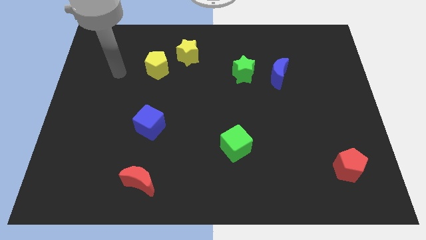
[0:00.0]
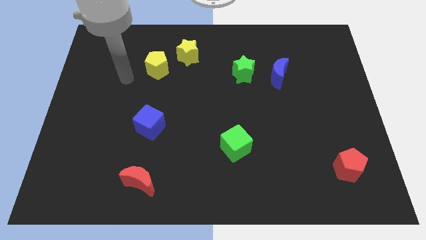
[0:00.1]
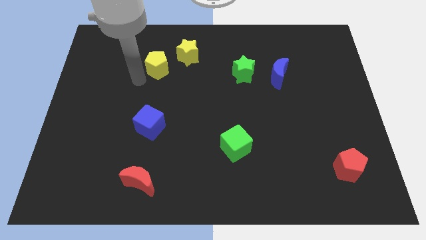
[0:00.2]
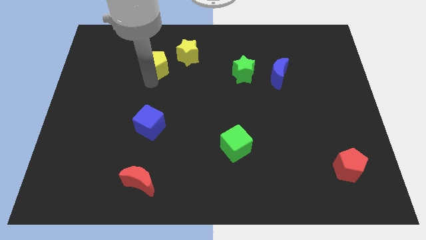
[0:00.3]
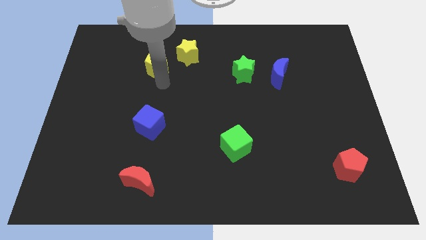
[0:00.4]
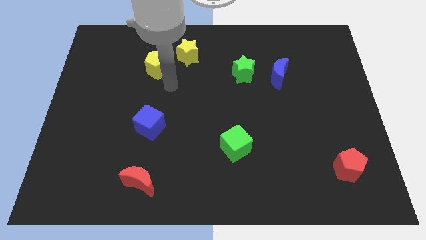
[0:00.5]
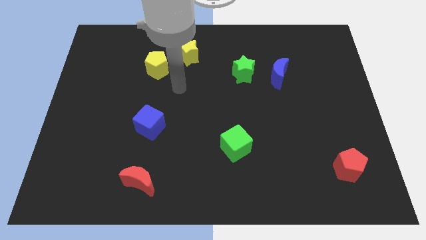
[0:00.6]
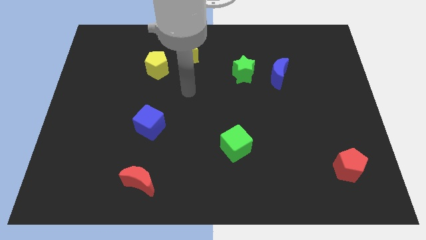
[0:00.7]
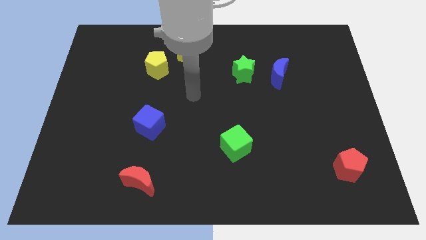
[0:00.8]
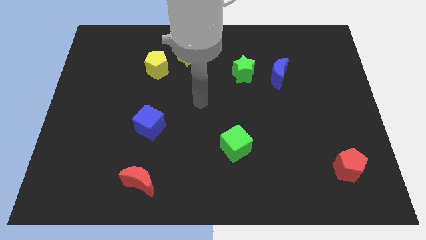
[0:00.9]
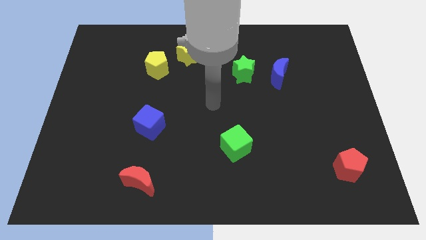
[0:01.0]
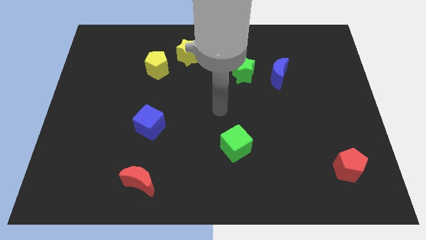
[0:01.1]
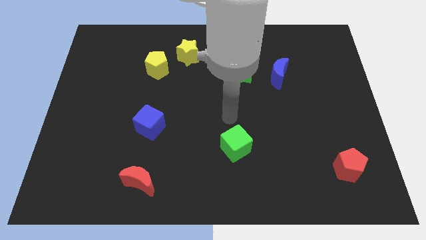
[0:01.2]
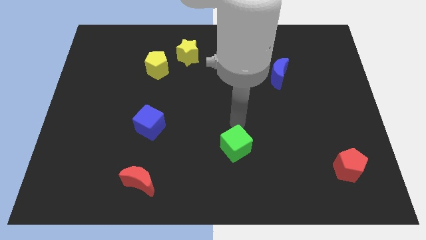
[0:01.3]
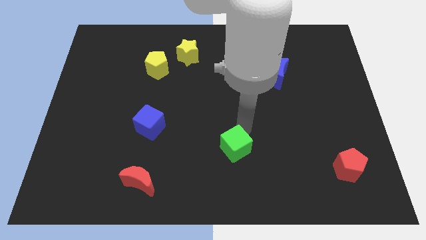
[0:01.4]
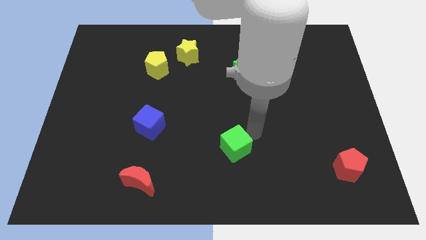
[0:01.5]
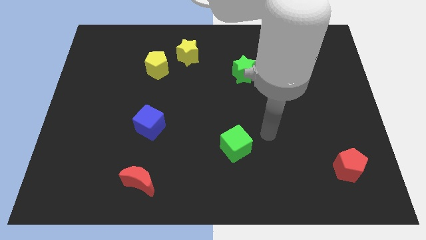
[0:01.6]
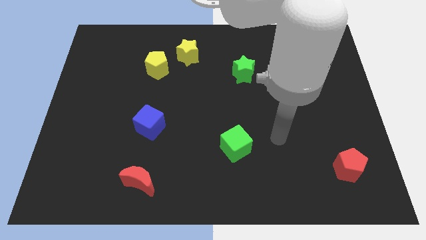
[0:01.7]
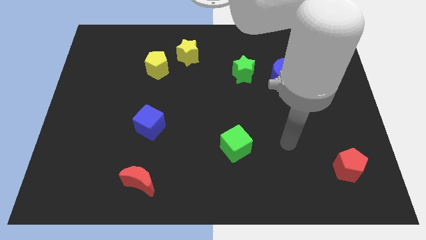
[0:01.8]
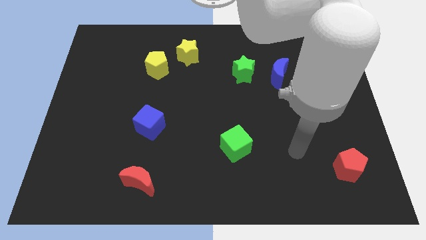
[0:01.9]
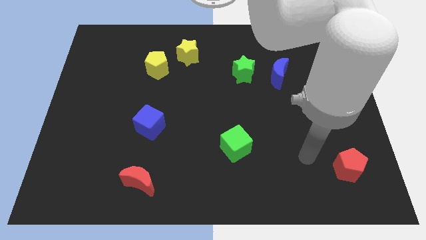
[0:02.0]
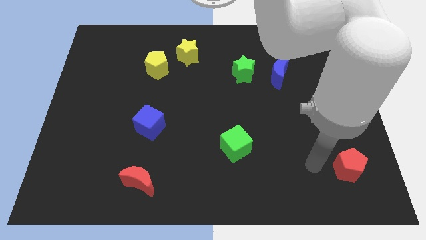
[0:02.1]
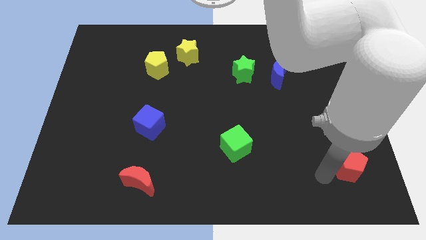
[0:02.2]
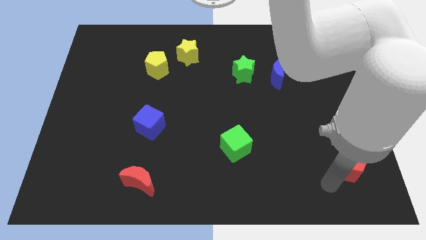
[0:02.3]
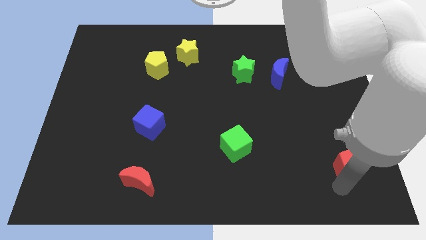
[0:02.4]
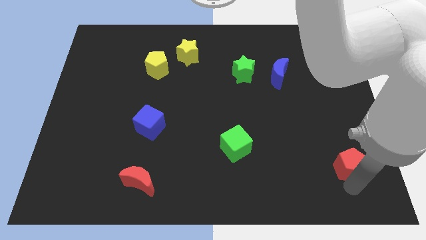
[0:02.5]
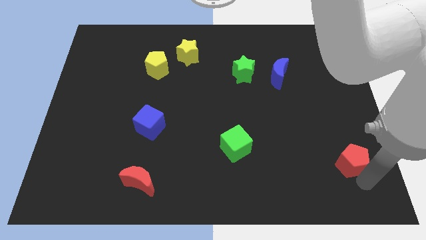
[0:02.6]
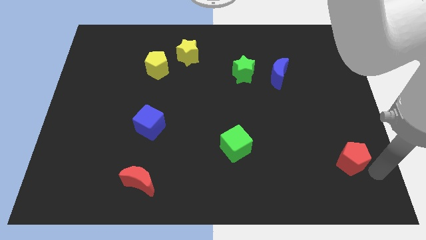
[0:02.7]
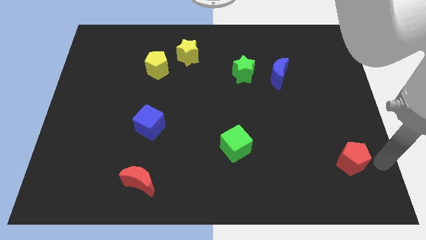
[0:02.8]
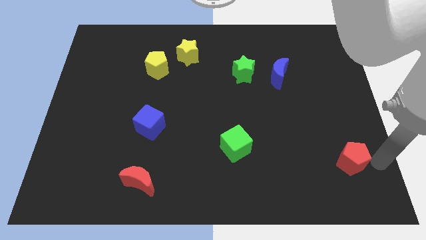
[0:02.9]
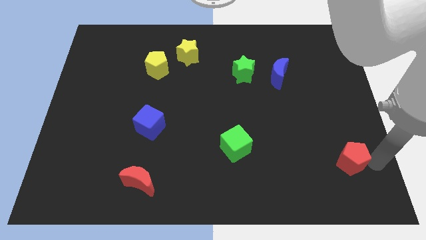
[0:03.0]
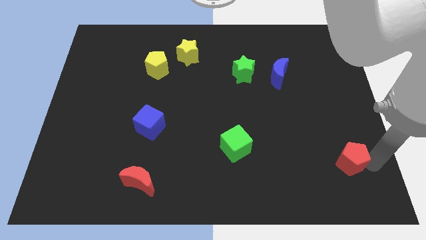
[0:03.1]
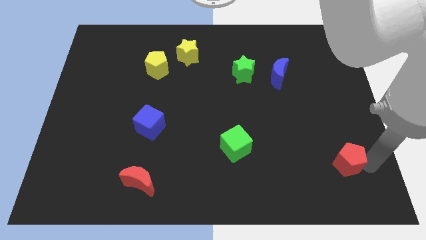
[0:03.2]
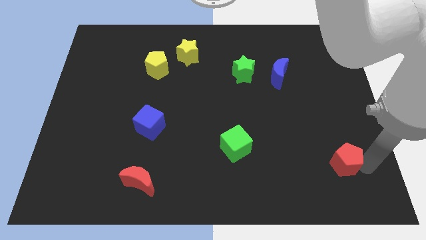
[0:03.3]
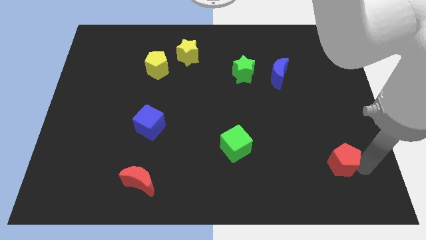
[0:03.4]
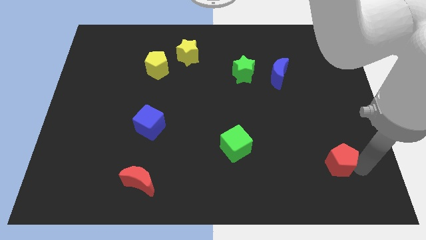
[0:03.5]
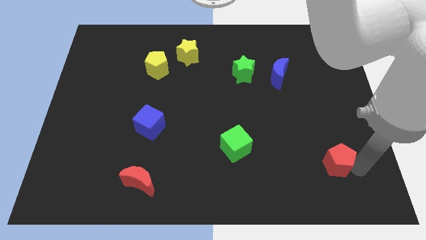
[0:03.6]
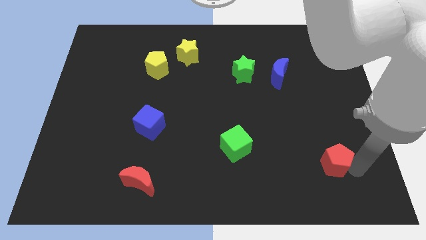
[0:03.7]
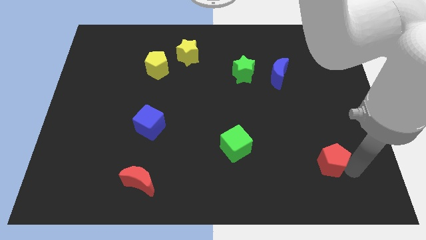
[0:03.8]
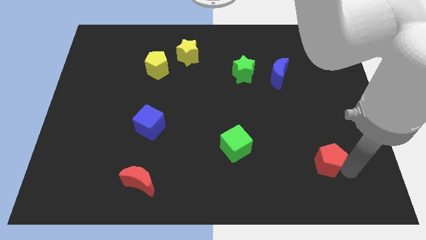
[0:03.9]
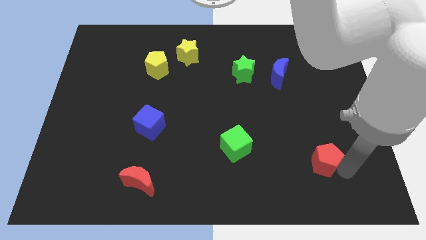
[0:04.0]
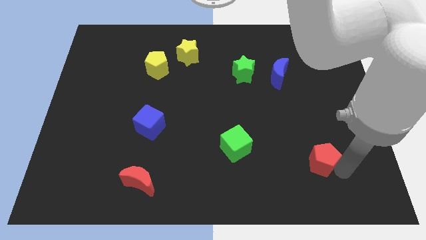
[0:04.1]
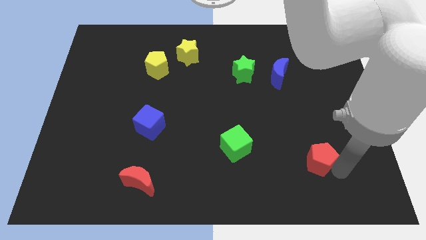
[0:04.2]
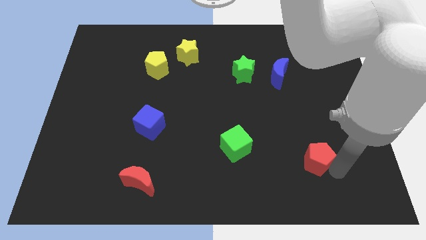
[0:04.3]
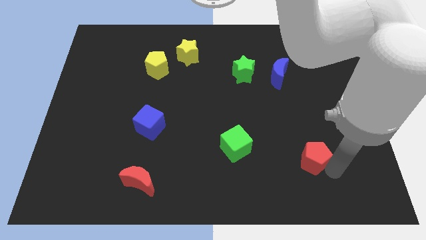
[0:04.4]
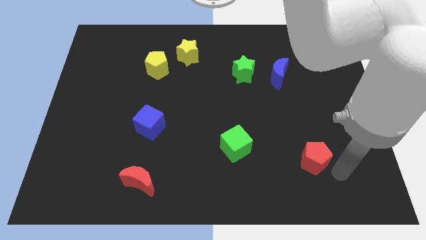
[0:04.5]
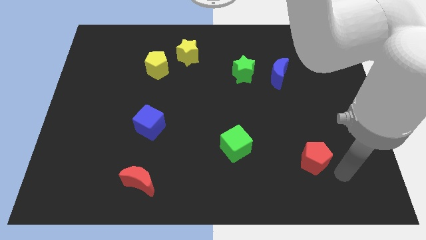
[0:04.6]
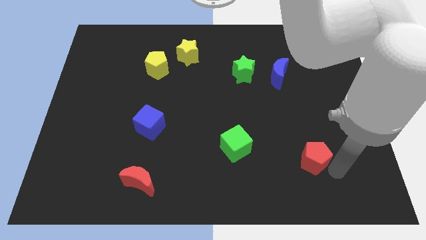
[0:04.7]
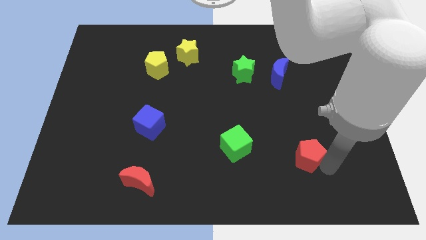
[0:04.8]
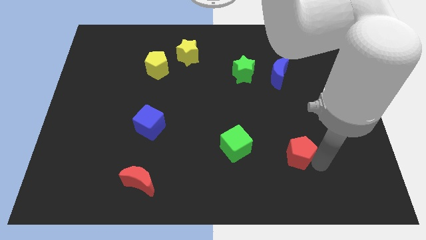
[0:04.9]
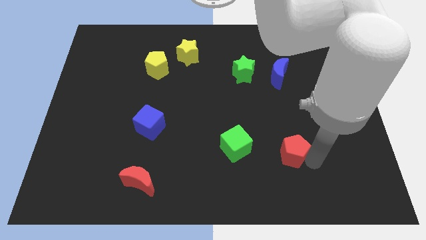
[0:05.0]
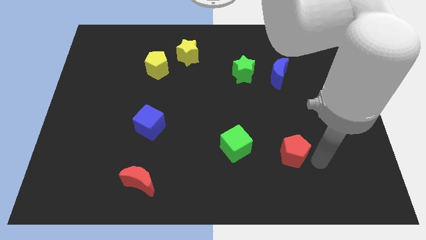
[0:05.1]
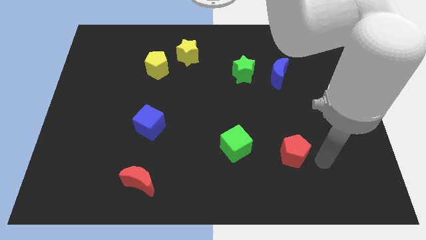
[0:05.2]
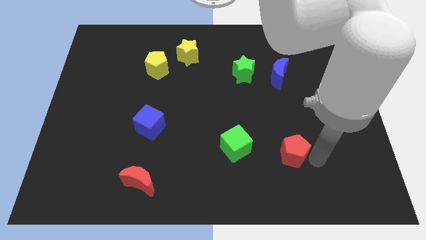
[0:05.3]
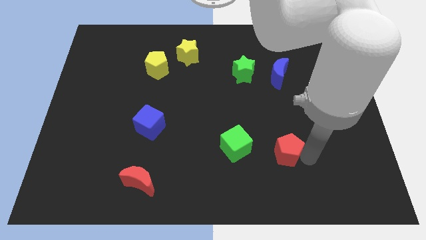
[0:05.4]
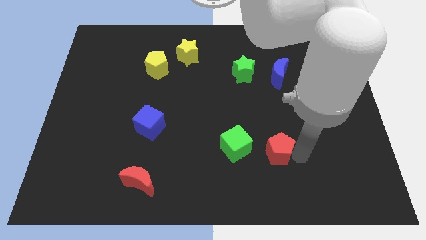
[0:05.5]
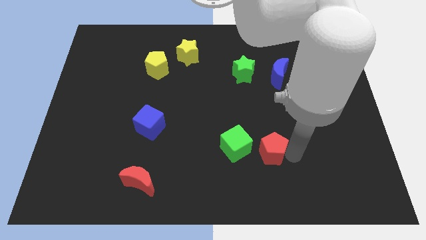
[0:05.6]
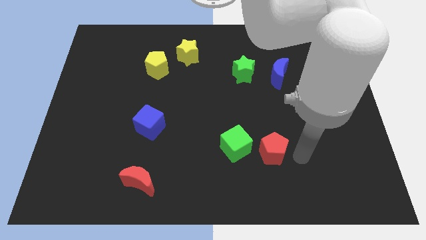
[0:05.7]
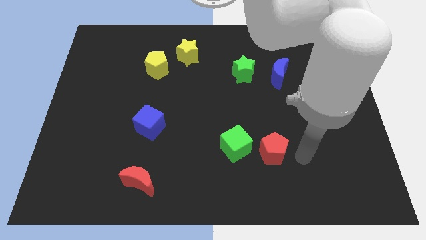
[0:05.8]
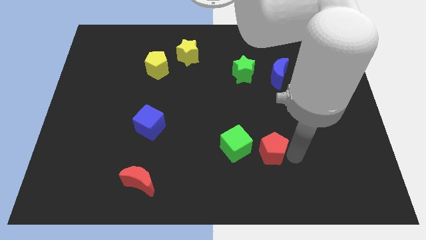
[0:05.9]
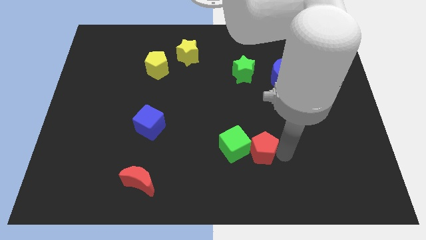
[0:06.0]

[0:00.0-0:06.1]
move the red pentagon to the green cube

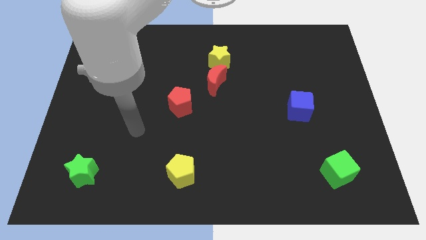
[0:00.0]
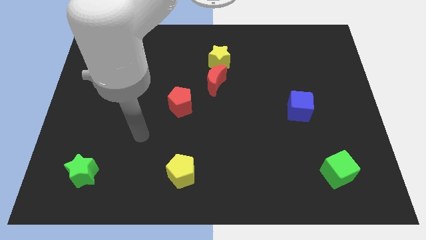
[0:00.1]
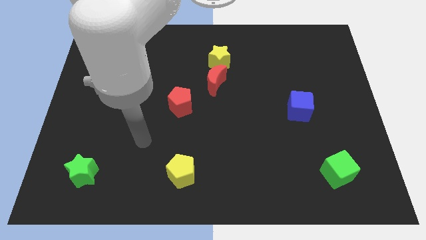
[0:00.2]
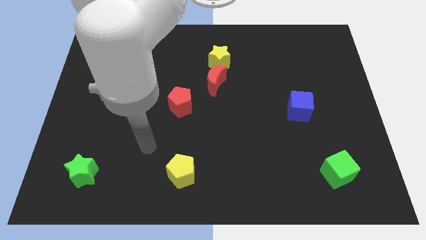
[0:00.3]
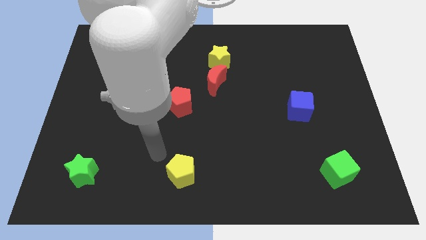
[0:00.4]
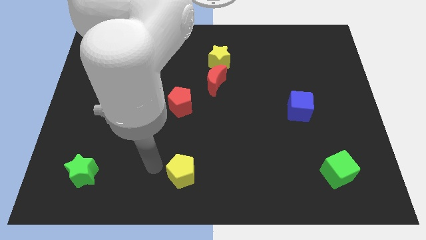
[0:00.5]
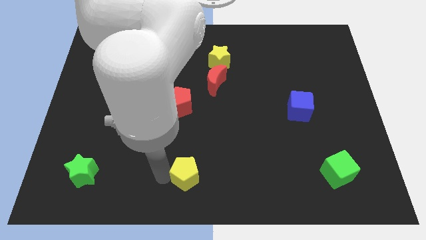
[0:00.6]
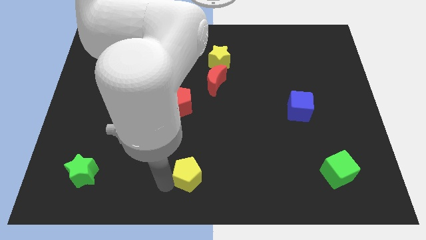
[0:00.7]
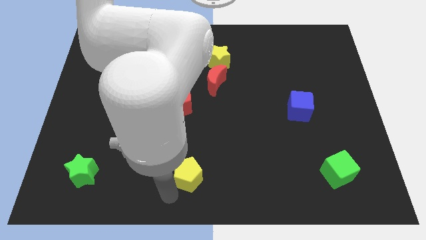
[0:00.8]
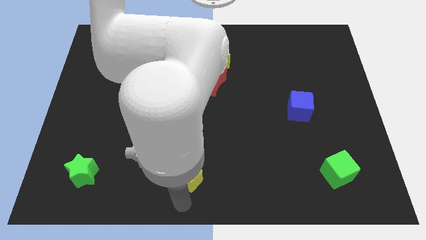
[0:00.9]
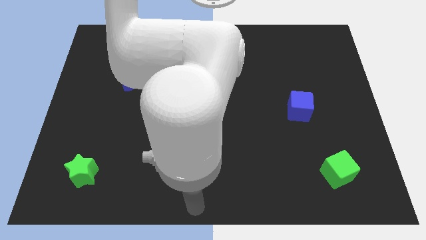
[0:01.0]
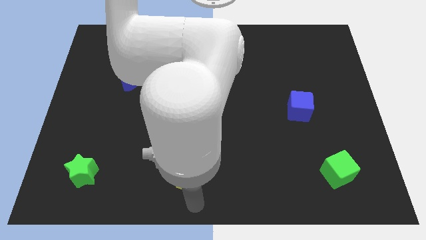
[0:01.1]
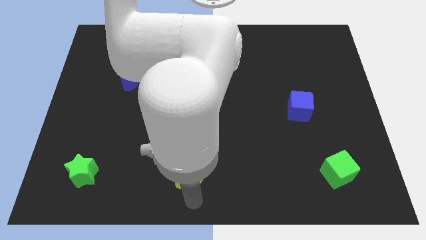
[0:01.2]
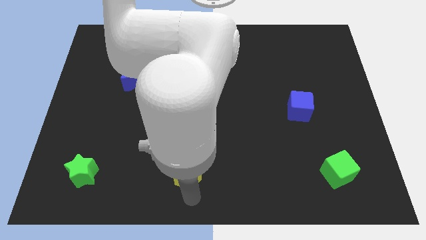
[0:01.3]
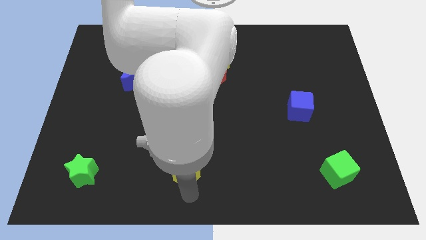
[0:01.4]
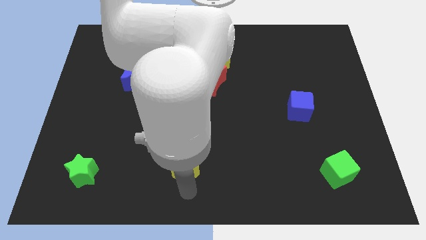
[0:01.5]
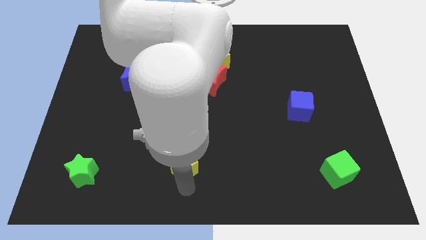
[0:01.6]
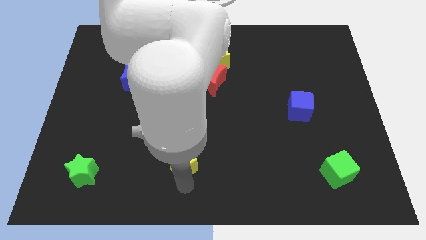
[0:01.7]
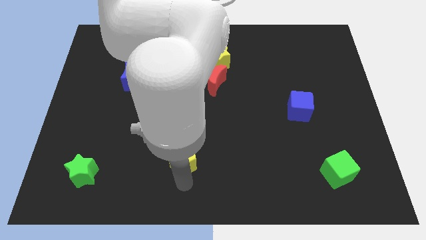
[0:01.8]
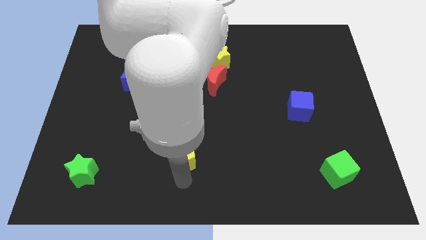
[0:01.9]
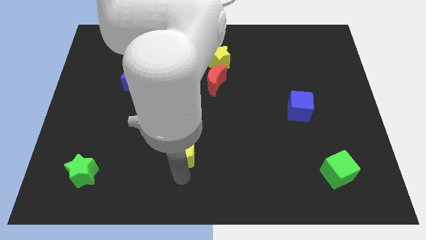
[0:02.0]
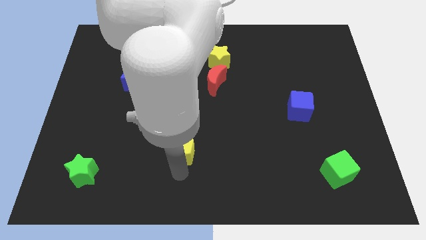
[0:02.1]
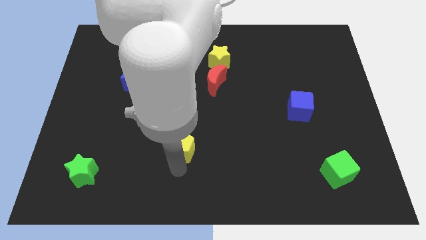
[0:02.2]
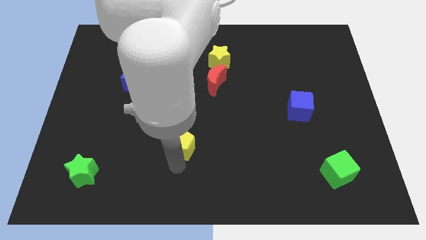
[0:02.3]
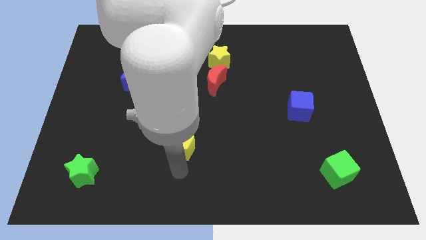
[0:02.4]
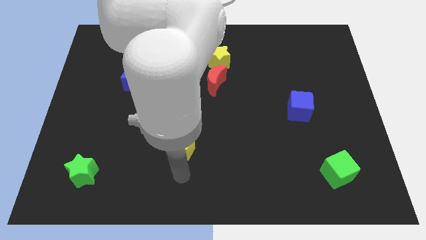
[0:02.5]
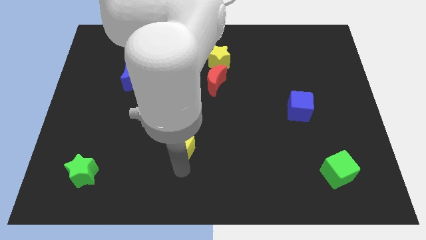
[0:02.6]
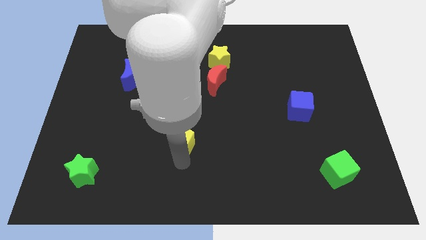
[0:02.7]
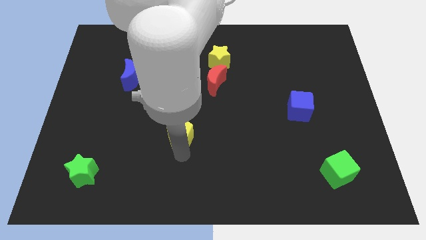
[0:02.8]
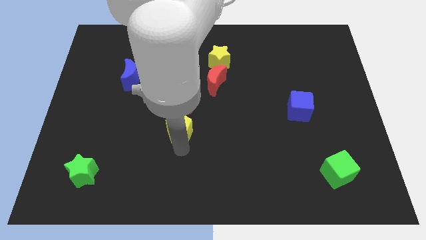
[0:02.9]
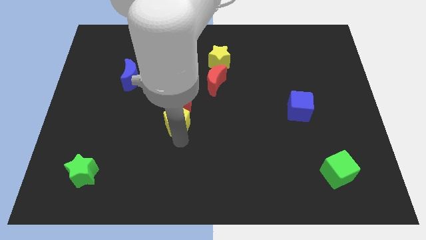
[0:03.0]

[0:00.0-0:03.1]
put the yellow pentagon close to the red pentagon
